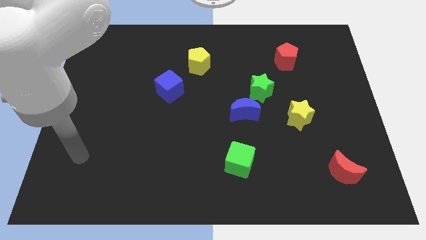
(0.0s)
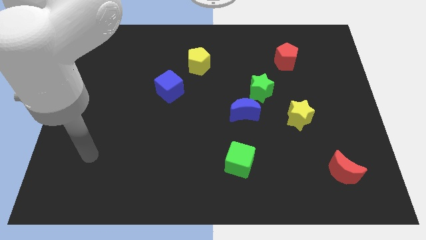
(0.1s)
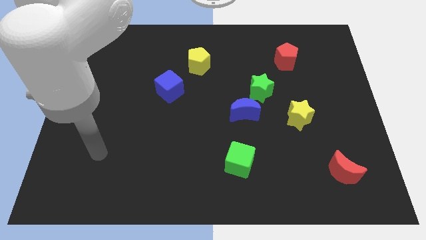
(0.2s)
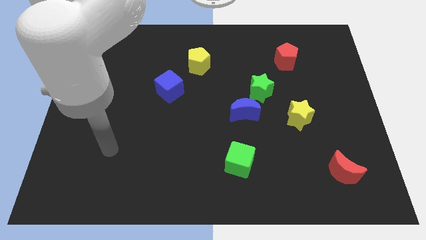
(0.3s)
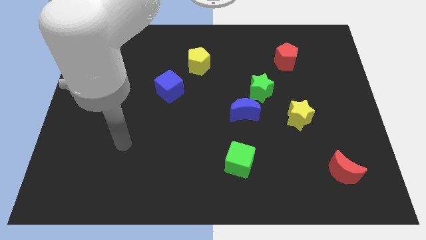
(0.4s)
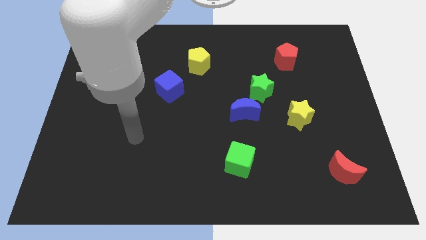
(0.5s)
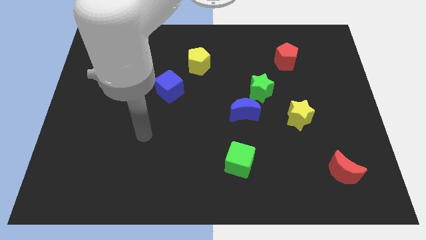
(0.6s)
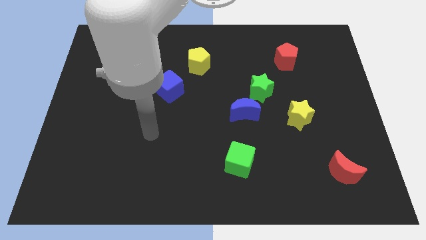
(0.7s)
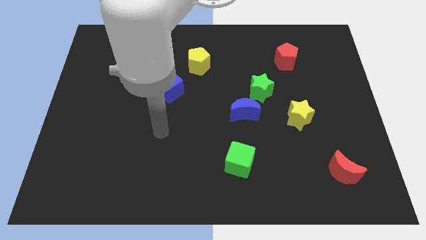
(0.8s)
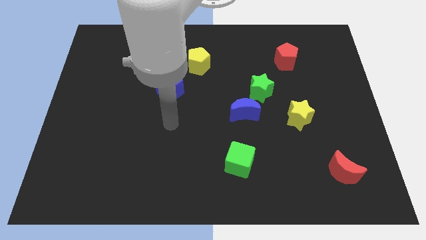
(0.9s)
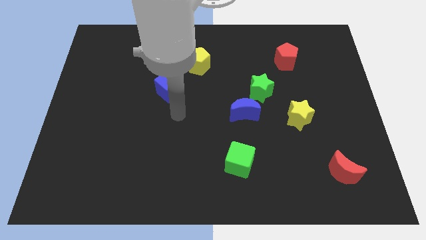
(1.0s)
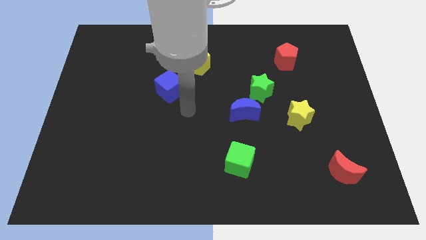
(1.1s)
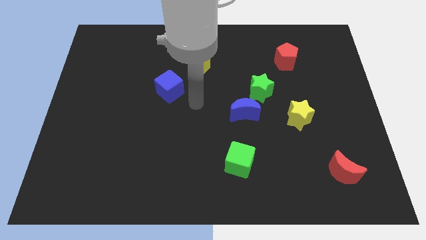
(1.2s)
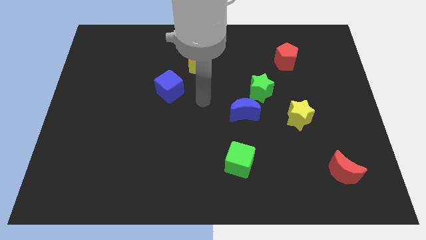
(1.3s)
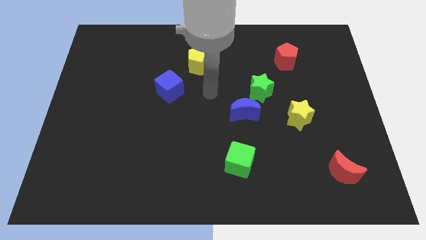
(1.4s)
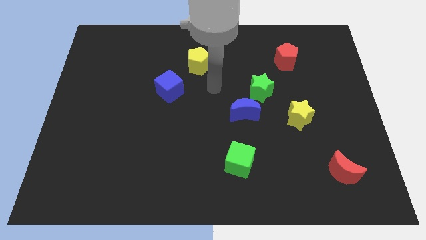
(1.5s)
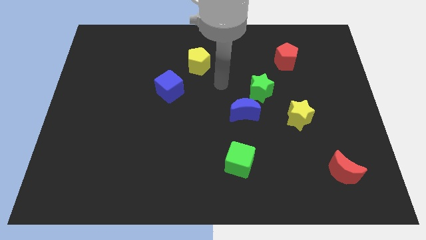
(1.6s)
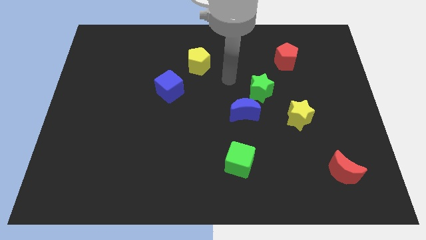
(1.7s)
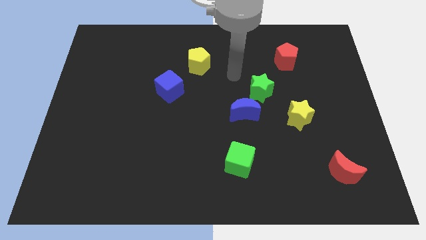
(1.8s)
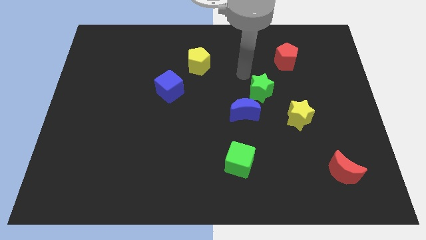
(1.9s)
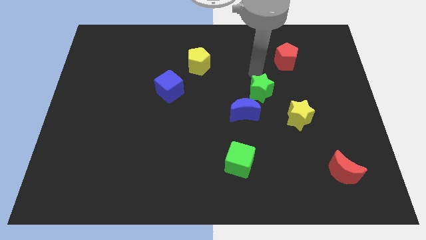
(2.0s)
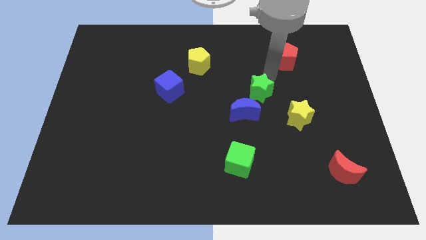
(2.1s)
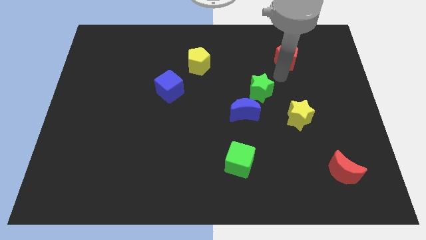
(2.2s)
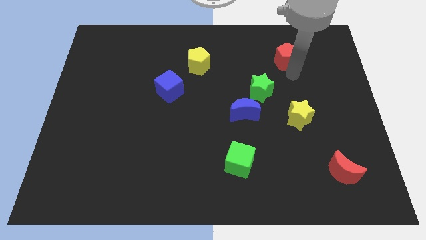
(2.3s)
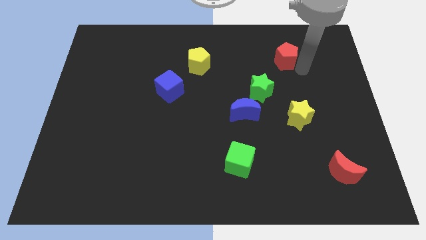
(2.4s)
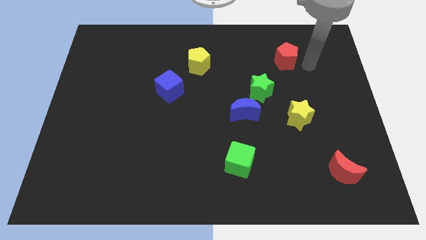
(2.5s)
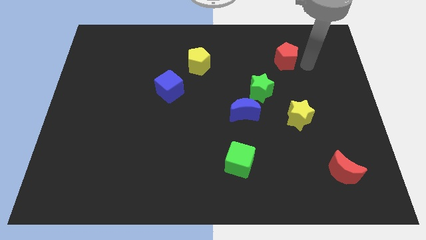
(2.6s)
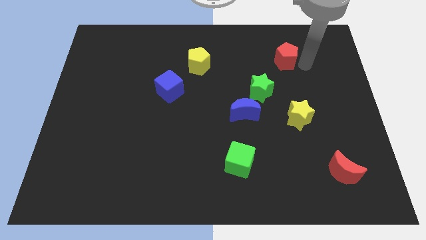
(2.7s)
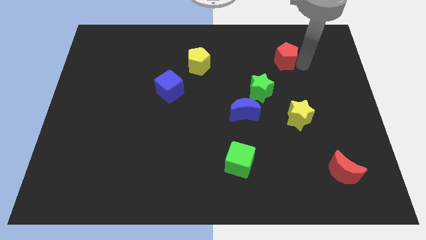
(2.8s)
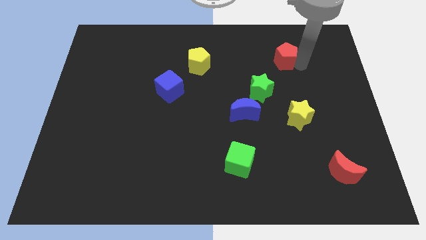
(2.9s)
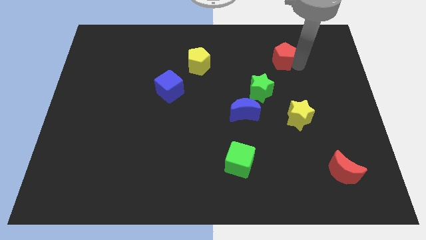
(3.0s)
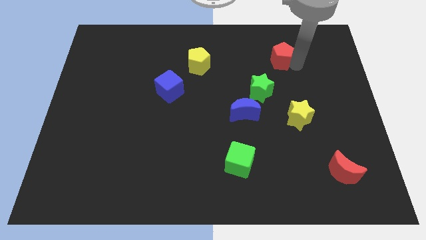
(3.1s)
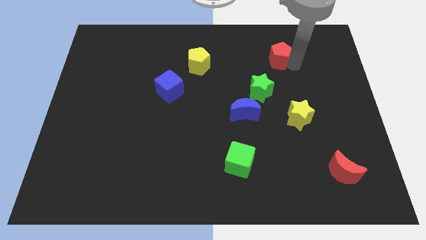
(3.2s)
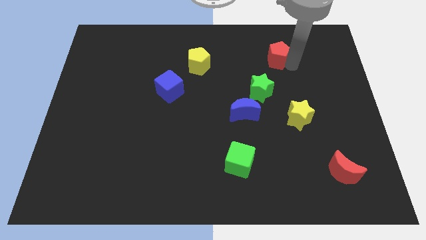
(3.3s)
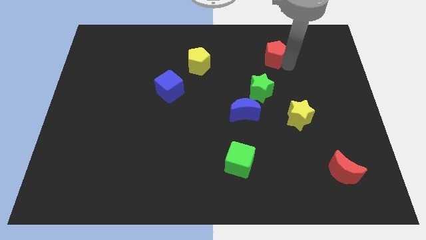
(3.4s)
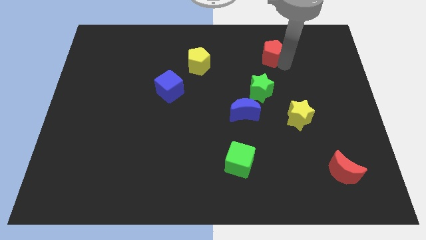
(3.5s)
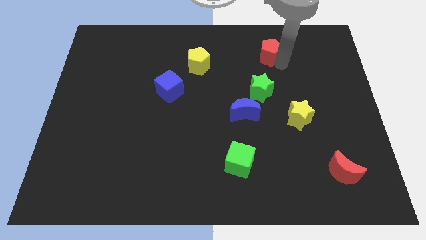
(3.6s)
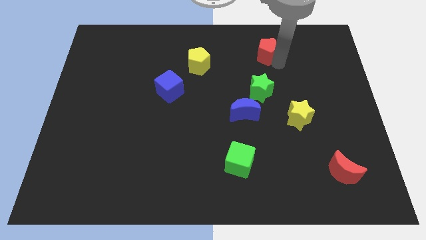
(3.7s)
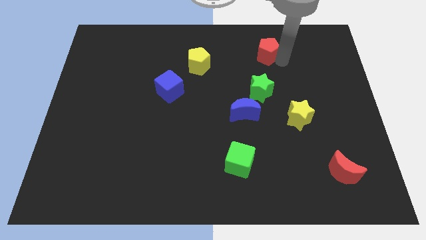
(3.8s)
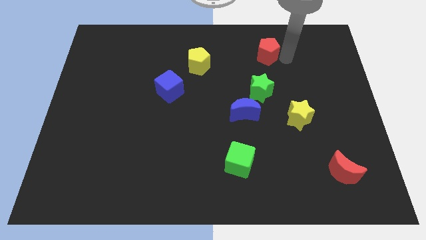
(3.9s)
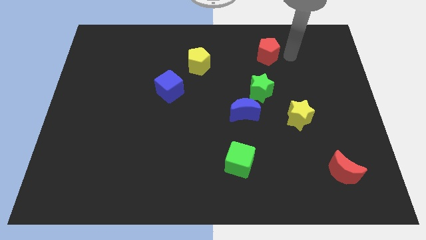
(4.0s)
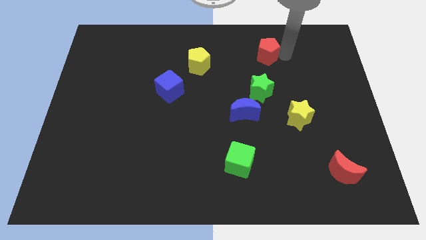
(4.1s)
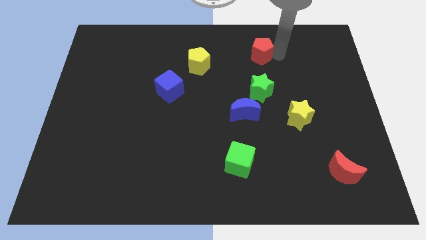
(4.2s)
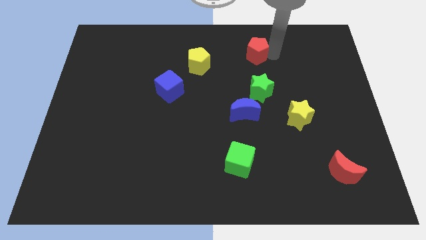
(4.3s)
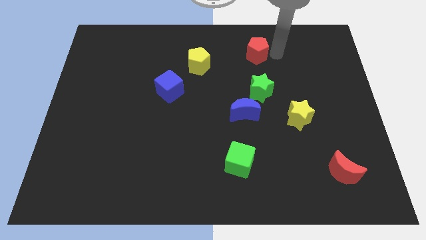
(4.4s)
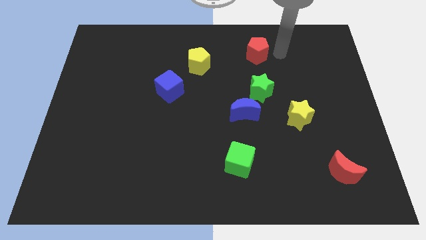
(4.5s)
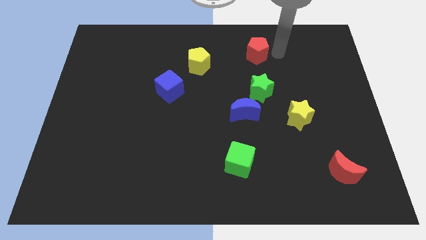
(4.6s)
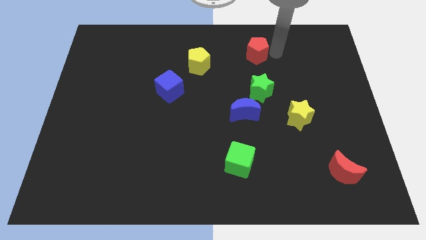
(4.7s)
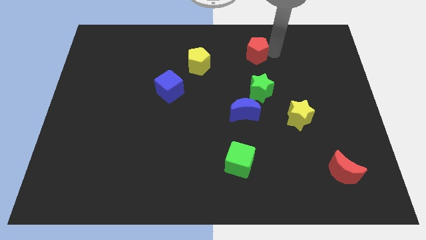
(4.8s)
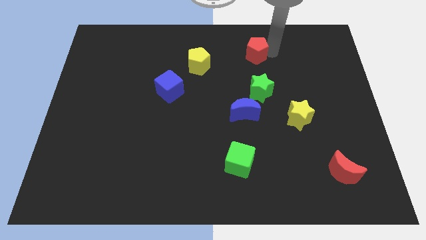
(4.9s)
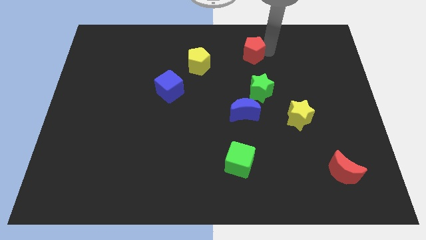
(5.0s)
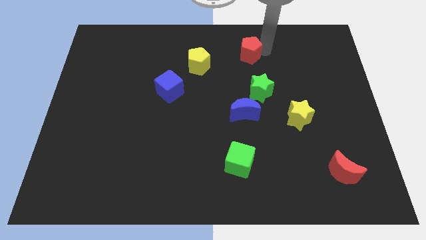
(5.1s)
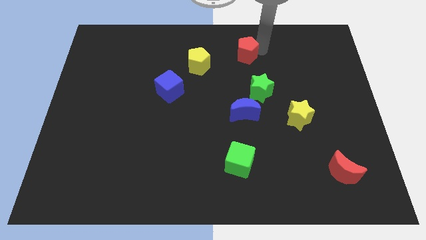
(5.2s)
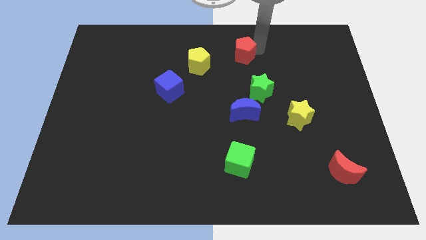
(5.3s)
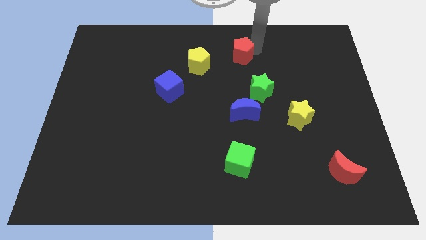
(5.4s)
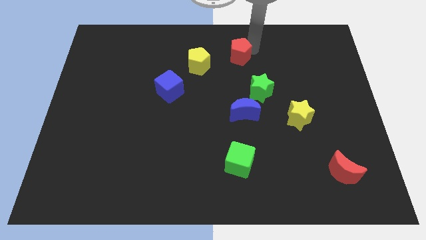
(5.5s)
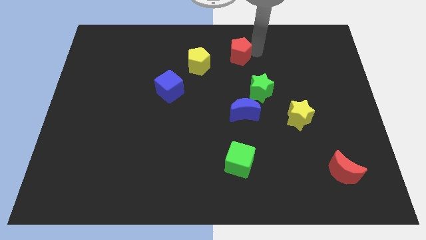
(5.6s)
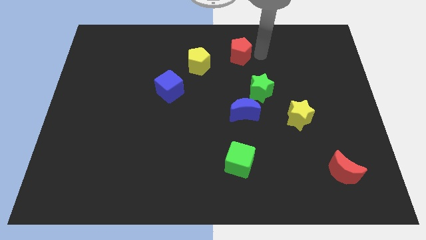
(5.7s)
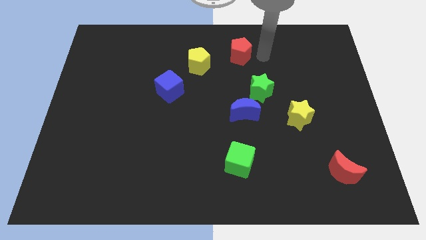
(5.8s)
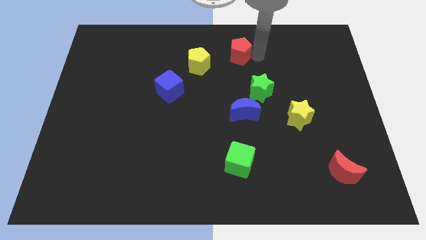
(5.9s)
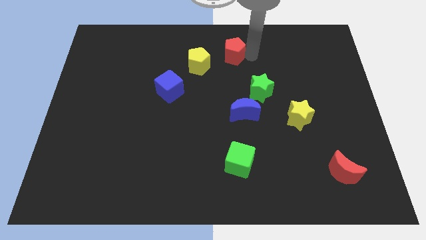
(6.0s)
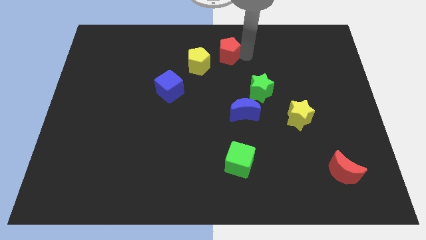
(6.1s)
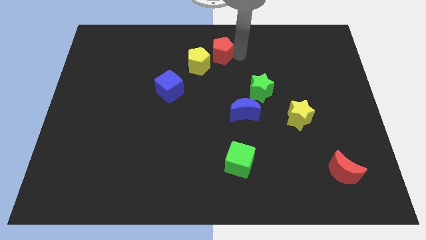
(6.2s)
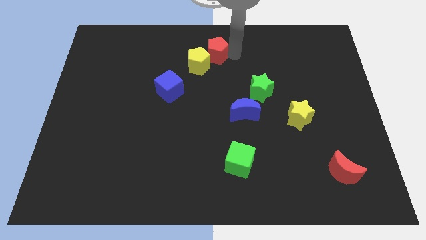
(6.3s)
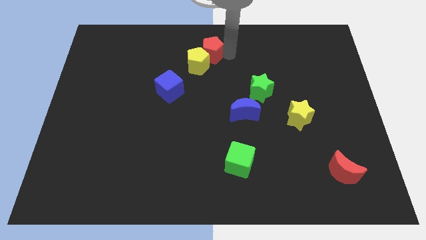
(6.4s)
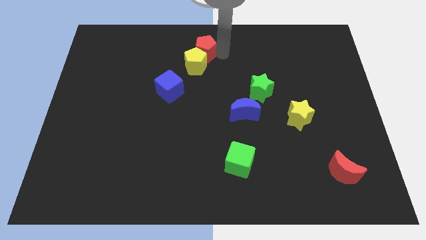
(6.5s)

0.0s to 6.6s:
push the red pentagon left

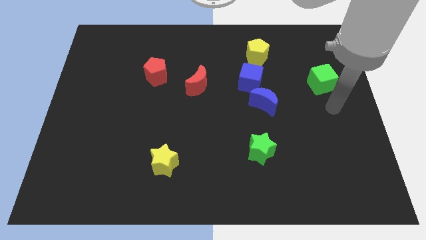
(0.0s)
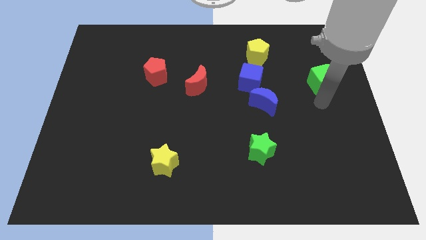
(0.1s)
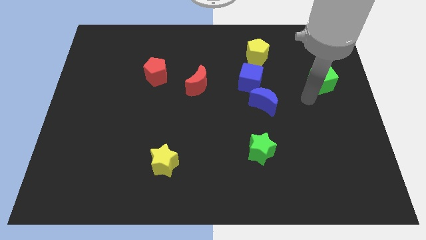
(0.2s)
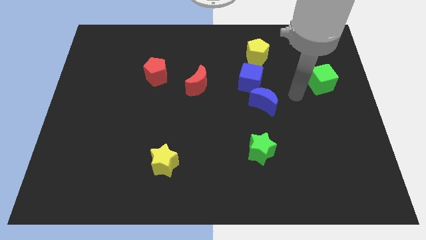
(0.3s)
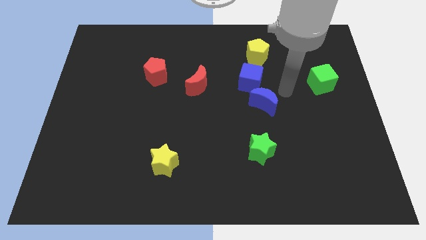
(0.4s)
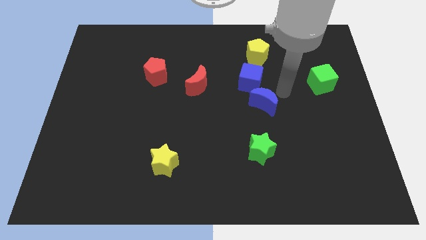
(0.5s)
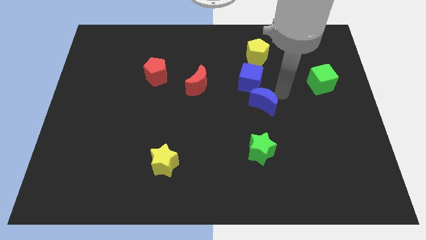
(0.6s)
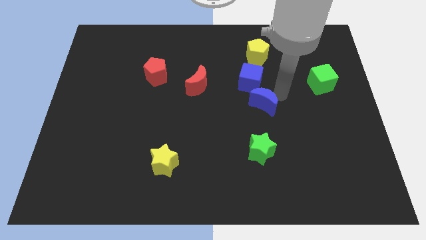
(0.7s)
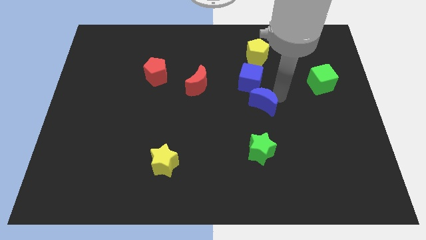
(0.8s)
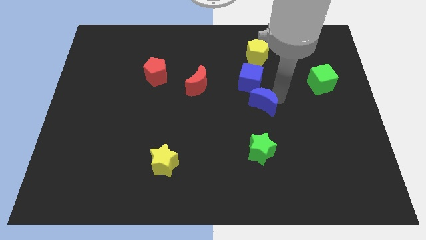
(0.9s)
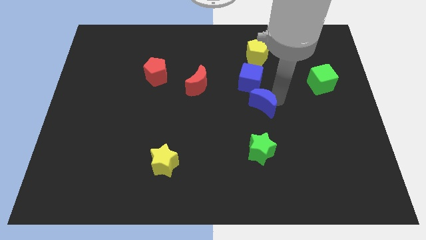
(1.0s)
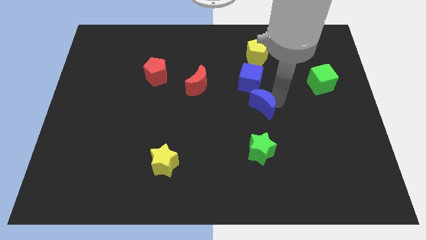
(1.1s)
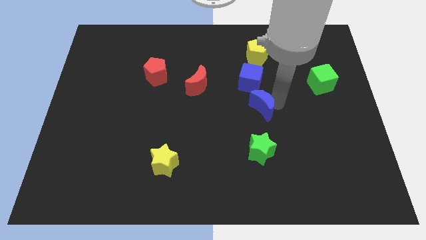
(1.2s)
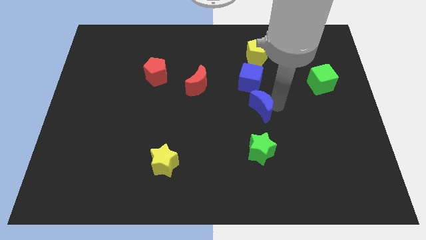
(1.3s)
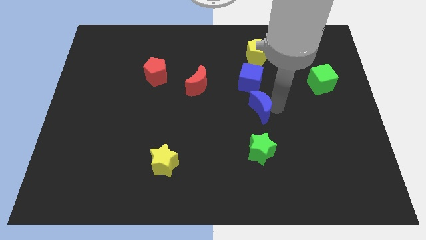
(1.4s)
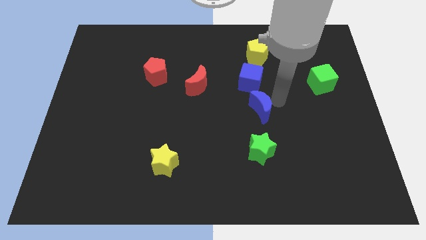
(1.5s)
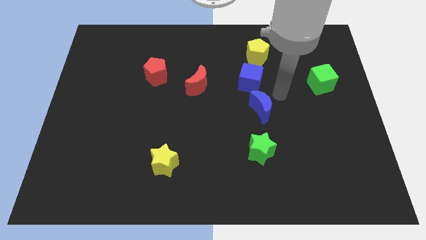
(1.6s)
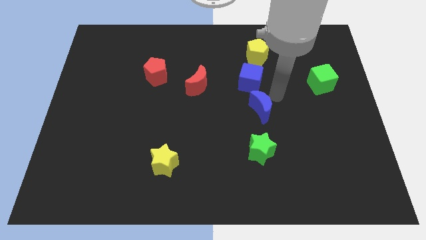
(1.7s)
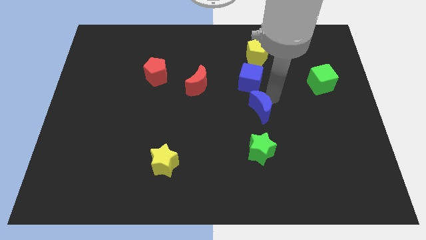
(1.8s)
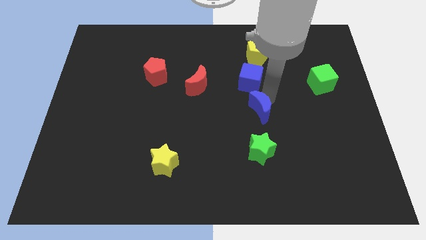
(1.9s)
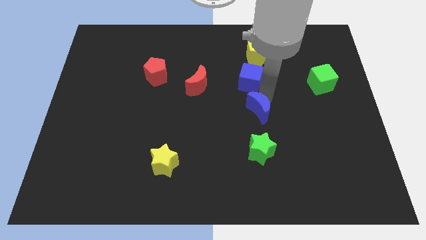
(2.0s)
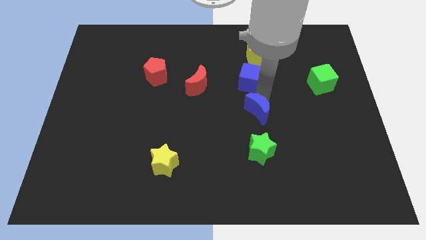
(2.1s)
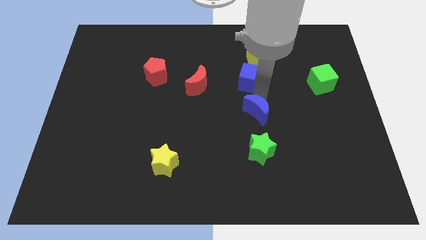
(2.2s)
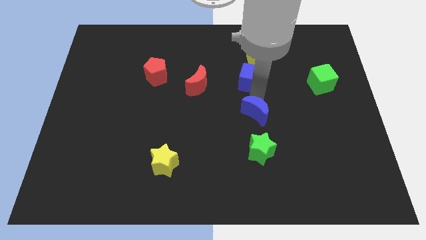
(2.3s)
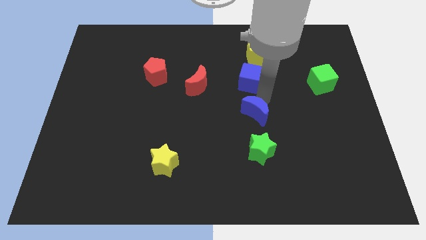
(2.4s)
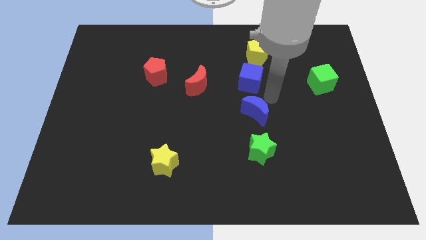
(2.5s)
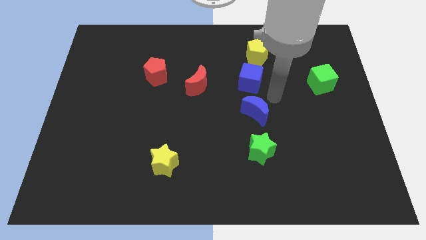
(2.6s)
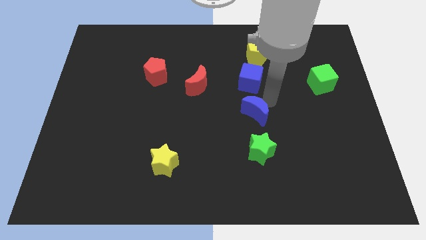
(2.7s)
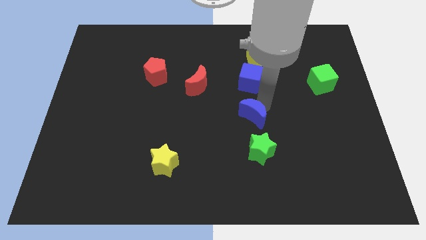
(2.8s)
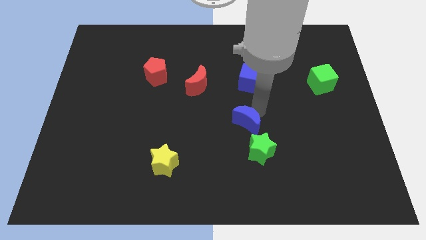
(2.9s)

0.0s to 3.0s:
move the blue moon a little downwards and then left
